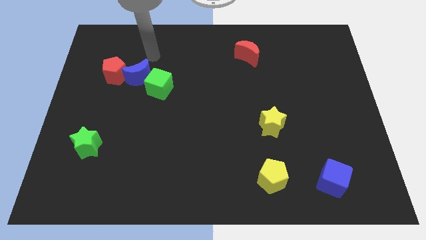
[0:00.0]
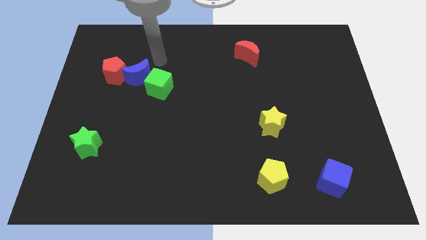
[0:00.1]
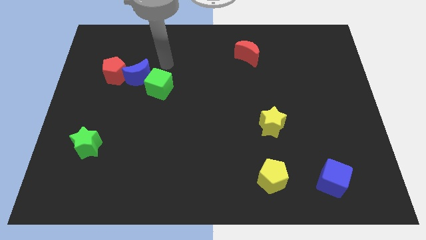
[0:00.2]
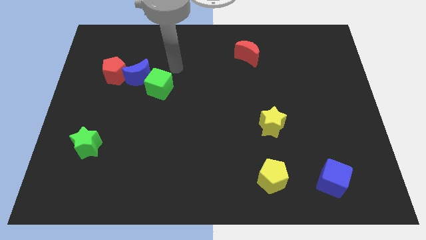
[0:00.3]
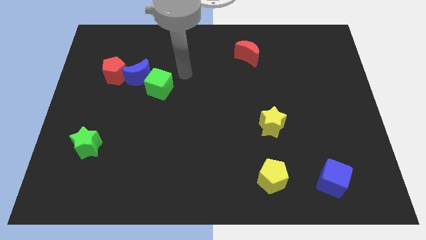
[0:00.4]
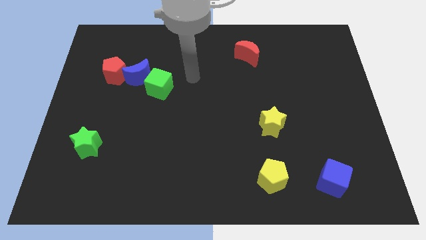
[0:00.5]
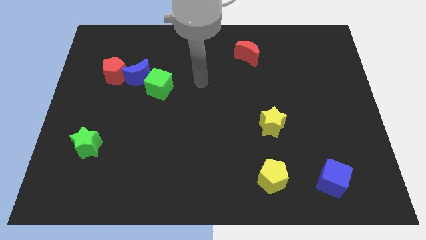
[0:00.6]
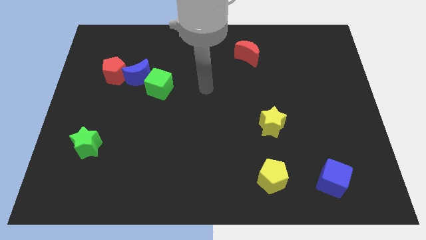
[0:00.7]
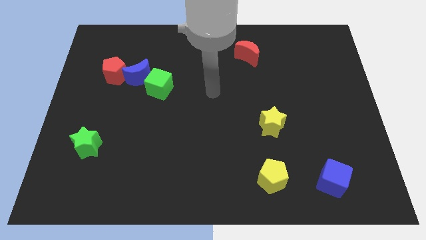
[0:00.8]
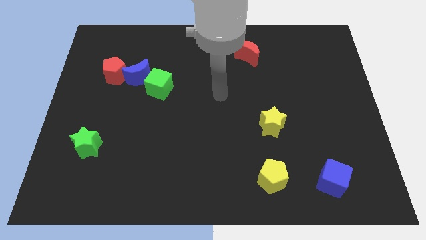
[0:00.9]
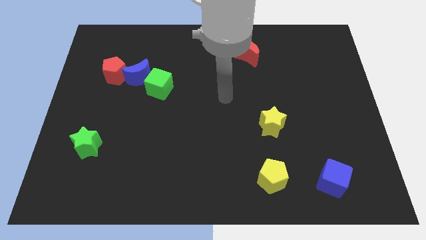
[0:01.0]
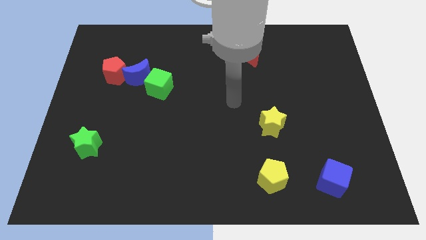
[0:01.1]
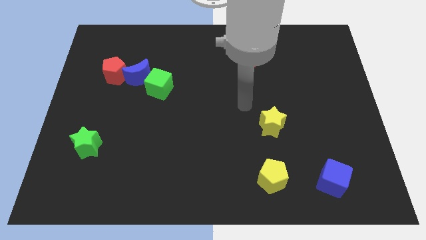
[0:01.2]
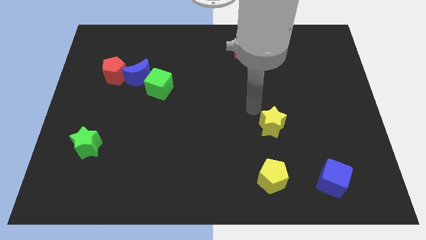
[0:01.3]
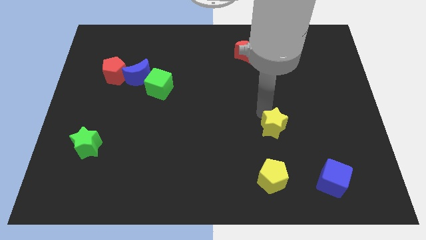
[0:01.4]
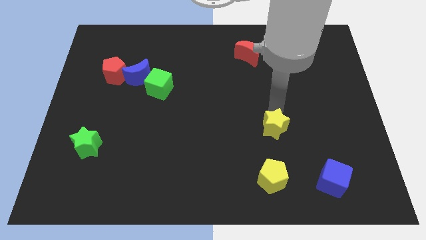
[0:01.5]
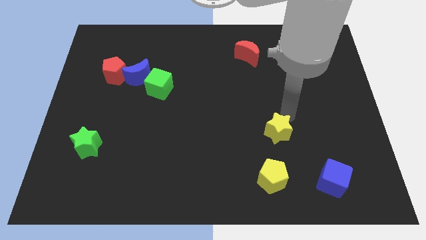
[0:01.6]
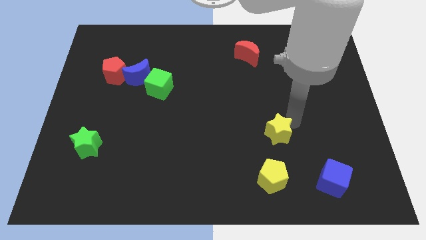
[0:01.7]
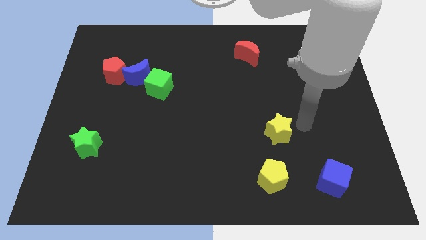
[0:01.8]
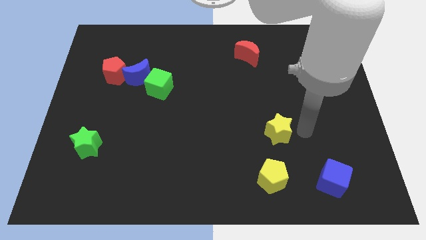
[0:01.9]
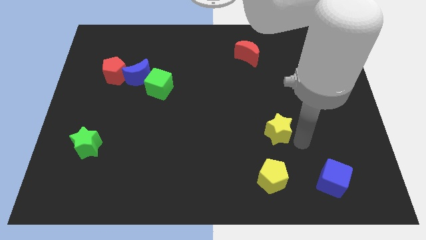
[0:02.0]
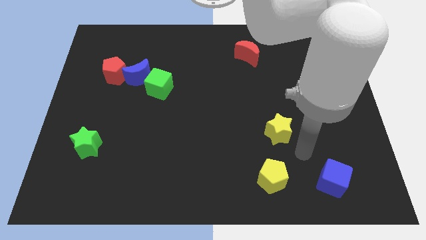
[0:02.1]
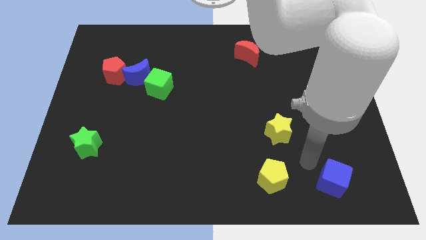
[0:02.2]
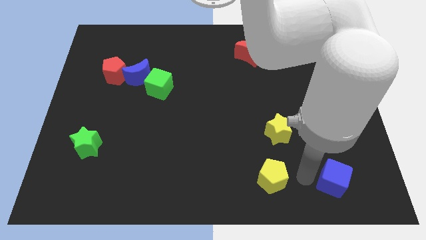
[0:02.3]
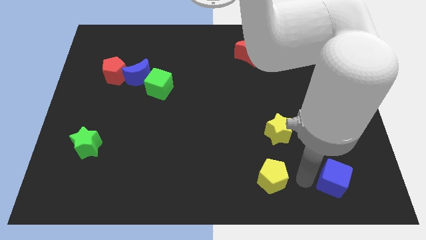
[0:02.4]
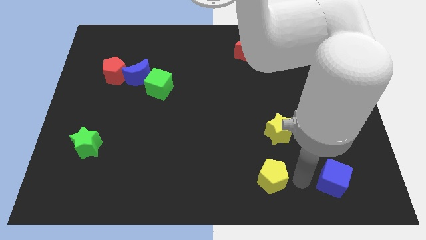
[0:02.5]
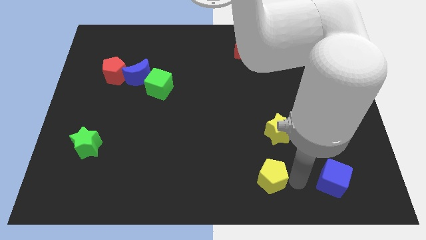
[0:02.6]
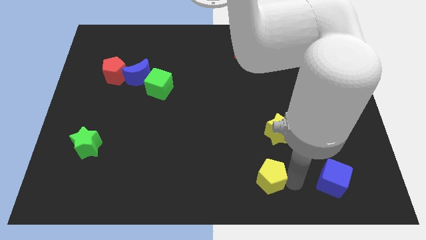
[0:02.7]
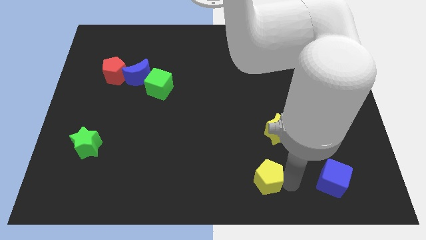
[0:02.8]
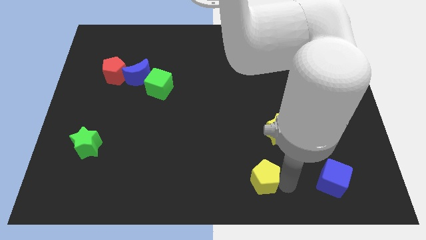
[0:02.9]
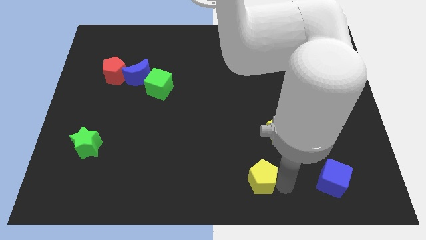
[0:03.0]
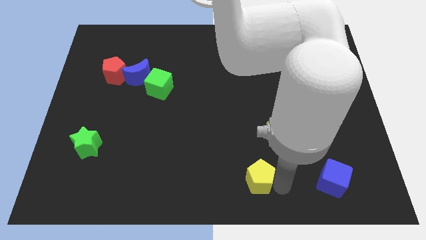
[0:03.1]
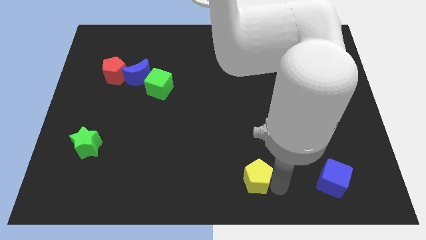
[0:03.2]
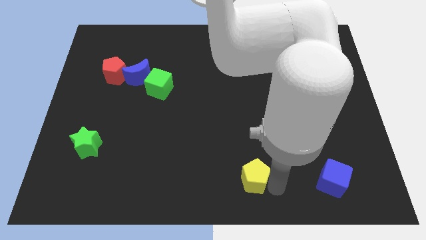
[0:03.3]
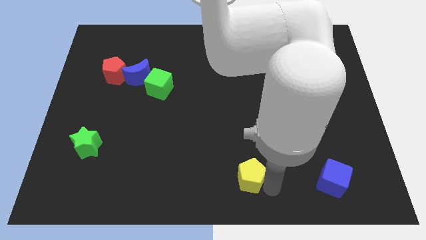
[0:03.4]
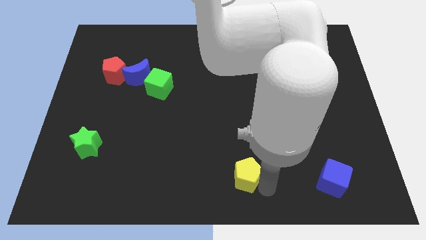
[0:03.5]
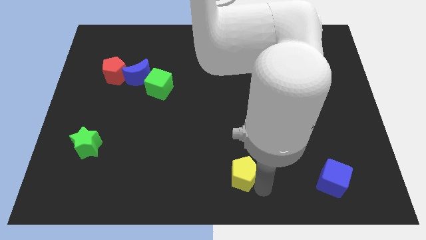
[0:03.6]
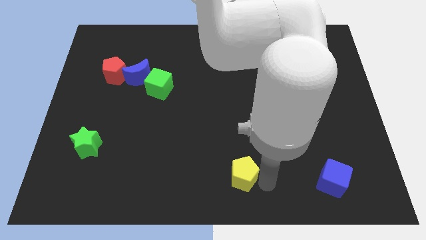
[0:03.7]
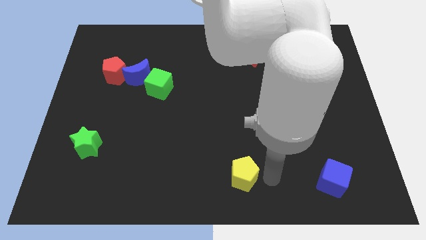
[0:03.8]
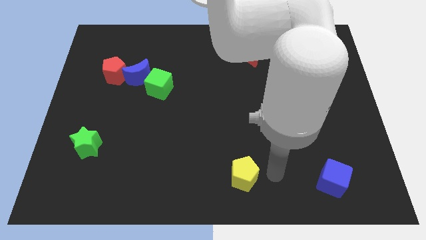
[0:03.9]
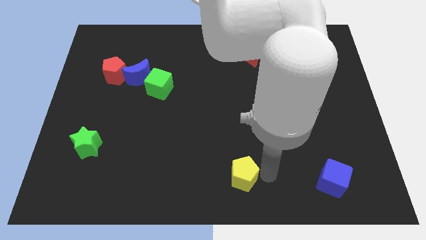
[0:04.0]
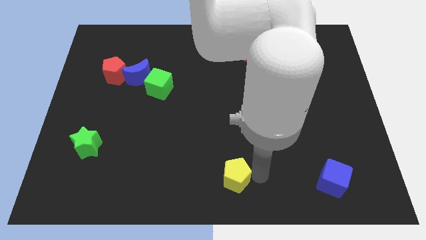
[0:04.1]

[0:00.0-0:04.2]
slightly slide the yellow pentagon to the left

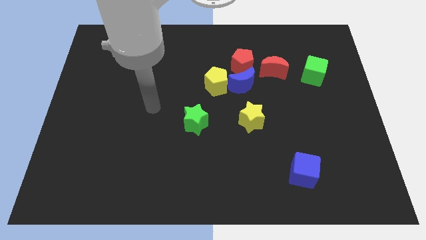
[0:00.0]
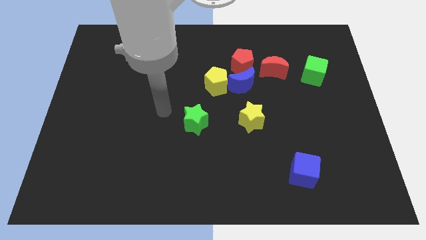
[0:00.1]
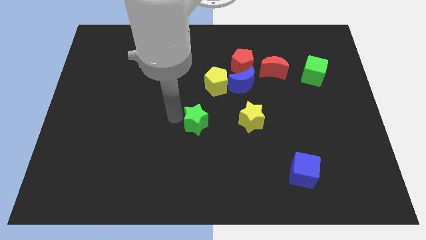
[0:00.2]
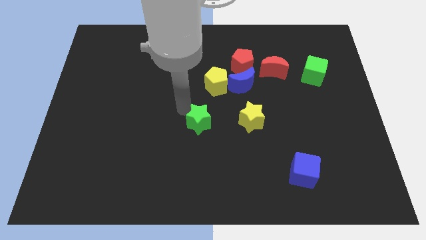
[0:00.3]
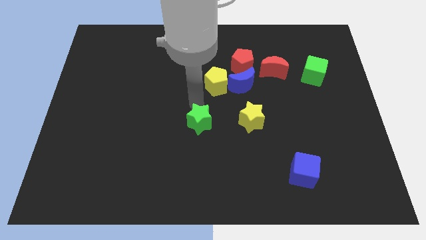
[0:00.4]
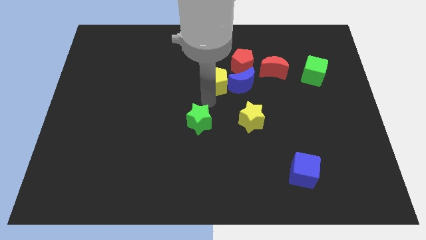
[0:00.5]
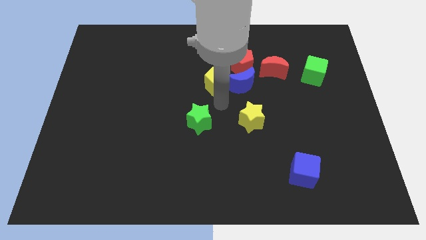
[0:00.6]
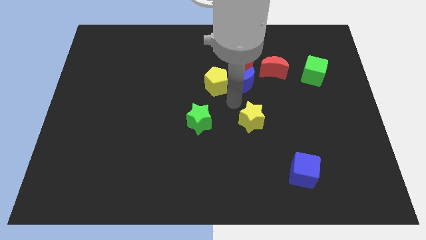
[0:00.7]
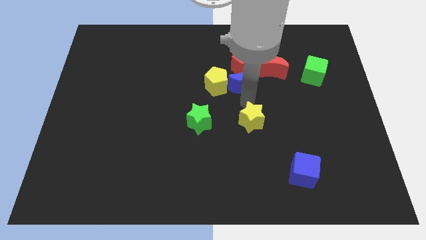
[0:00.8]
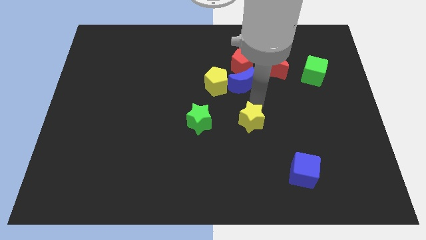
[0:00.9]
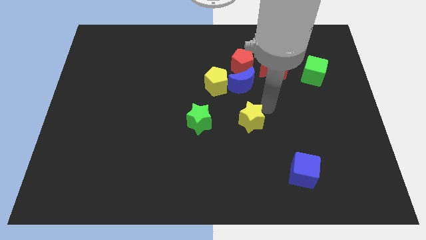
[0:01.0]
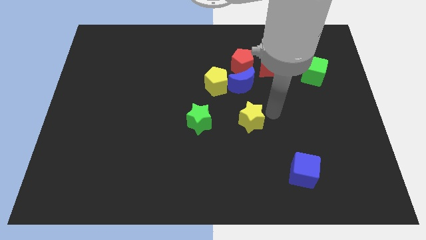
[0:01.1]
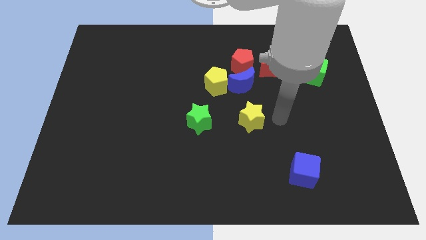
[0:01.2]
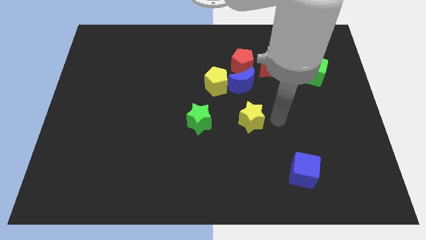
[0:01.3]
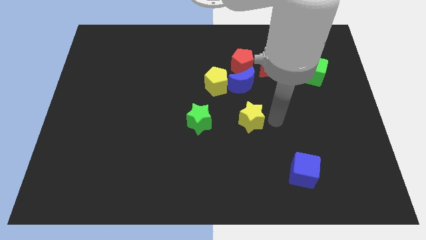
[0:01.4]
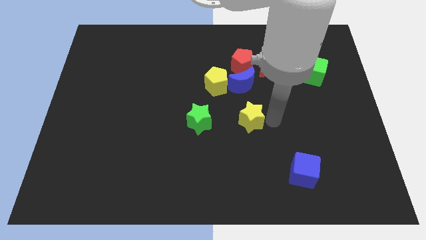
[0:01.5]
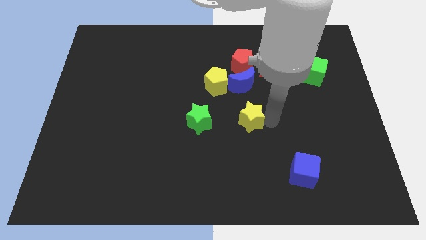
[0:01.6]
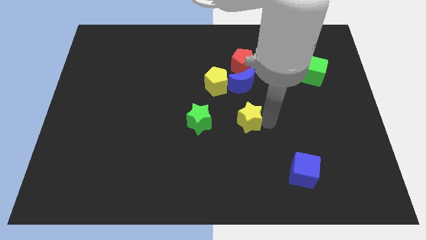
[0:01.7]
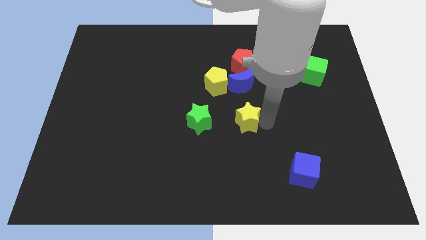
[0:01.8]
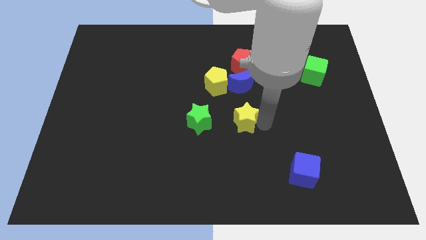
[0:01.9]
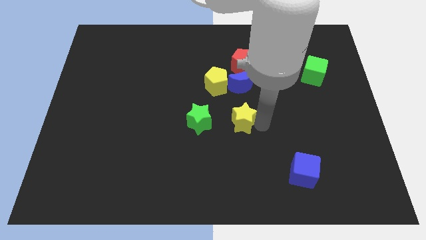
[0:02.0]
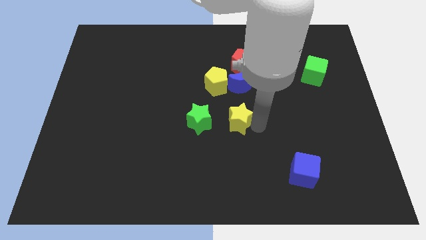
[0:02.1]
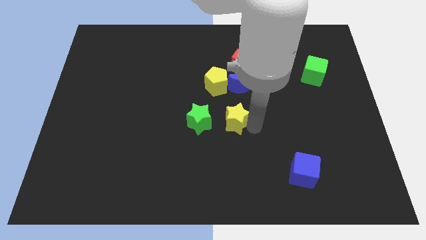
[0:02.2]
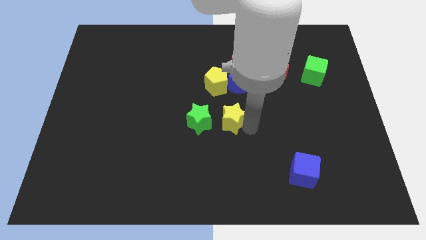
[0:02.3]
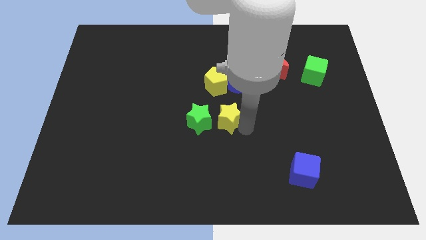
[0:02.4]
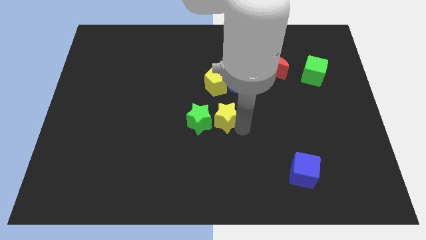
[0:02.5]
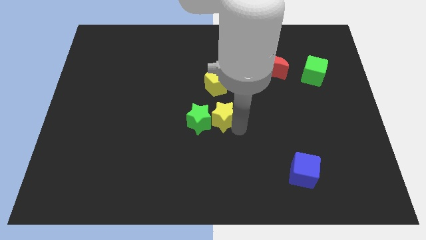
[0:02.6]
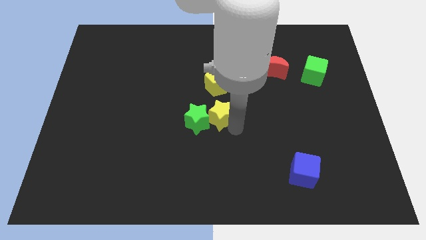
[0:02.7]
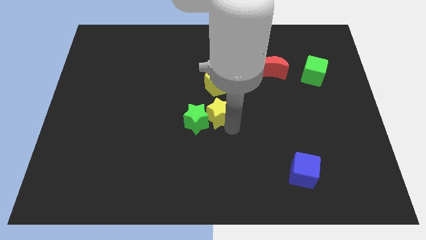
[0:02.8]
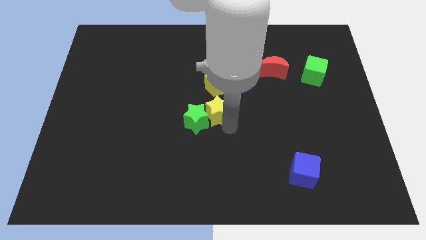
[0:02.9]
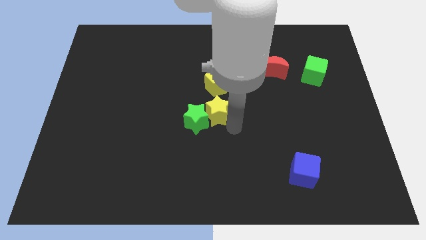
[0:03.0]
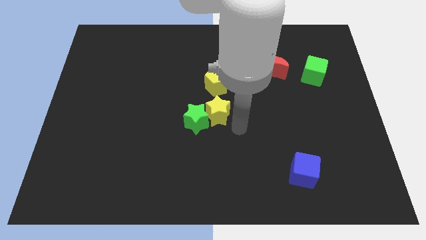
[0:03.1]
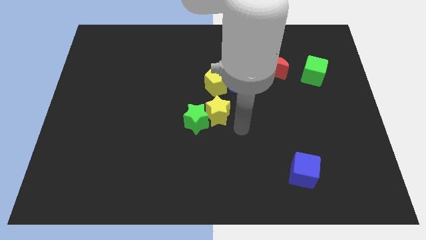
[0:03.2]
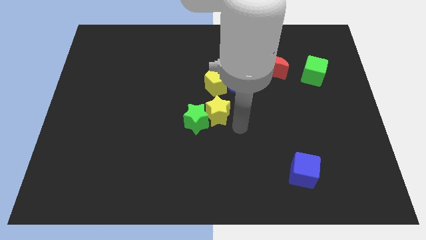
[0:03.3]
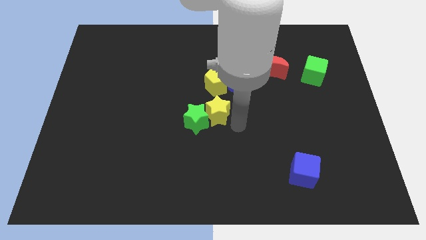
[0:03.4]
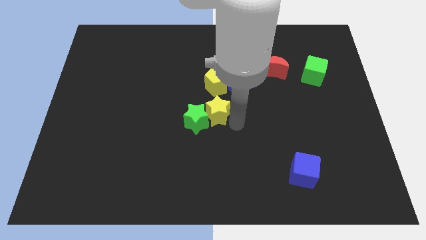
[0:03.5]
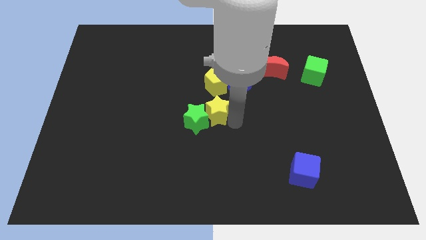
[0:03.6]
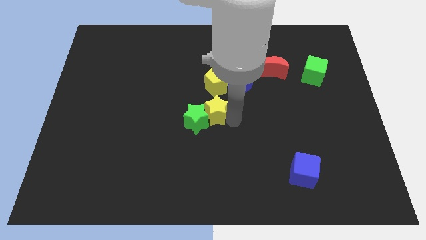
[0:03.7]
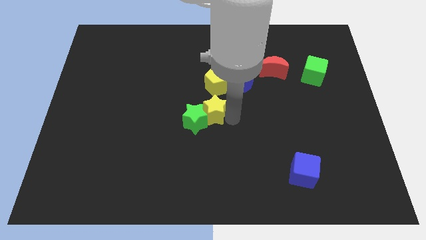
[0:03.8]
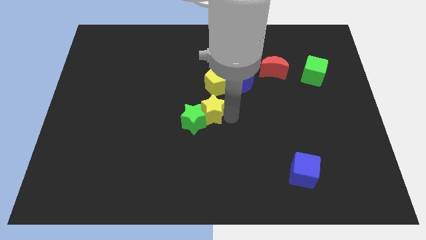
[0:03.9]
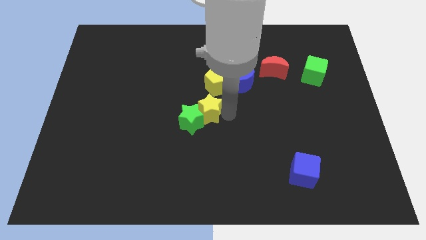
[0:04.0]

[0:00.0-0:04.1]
slightly slide the yellow star upwards and to the left diagonally
